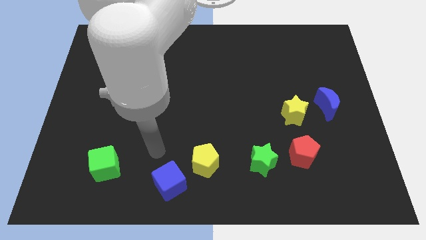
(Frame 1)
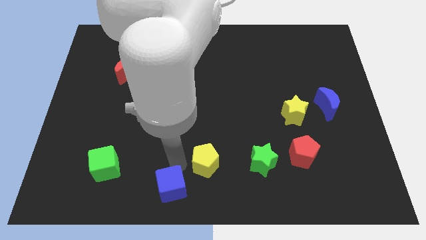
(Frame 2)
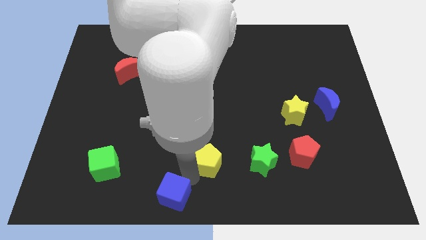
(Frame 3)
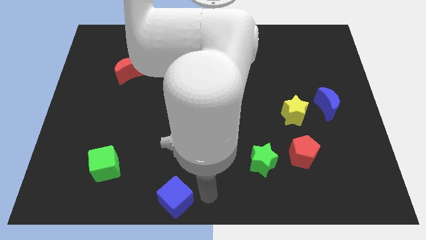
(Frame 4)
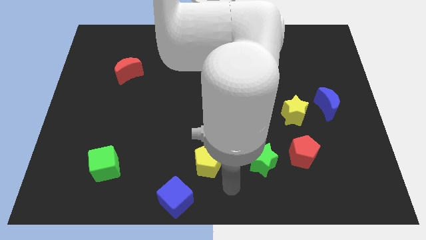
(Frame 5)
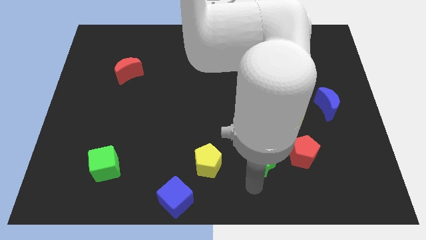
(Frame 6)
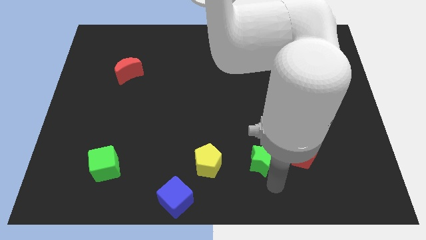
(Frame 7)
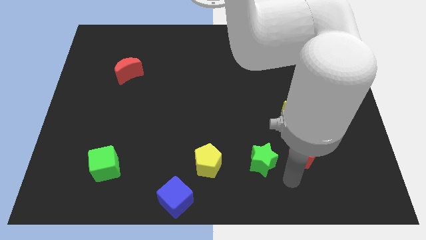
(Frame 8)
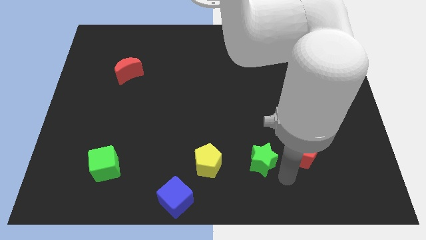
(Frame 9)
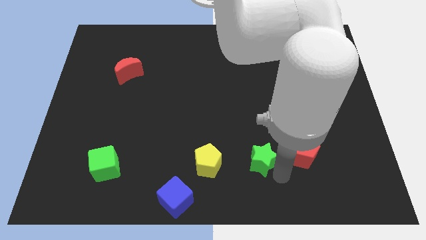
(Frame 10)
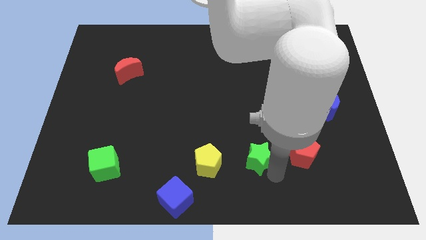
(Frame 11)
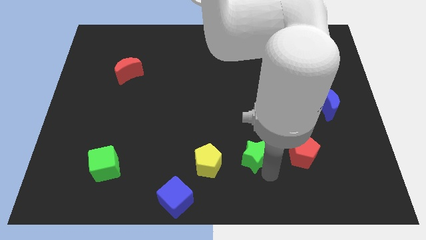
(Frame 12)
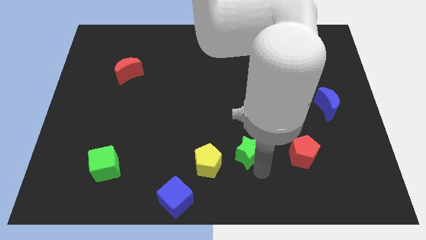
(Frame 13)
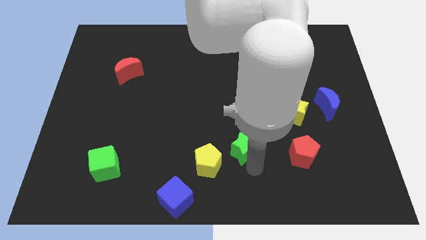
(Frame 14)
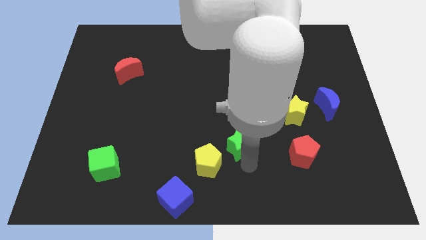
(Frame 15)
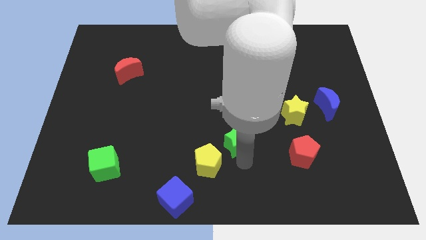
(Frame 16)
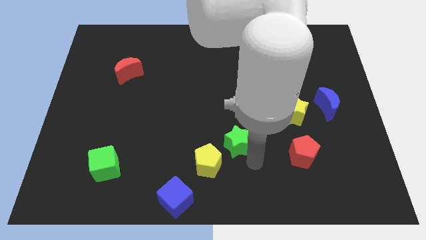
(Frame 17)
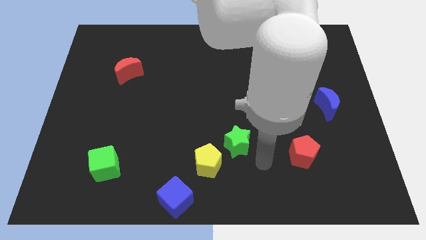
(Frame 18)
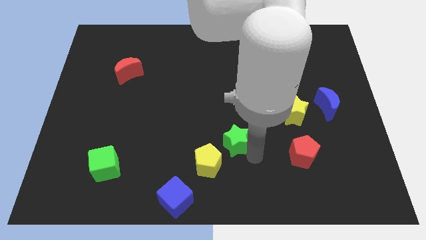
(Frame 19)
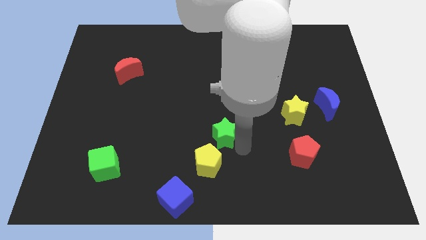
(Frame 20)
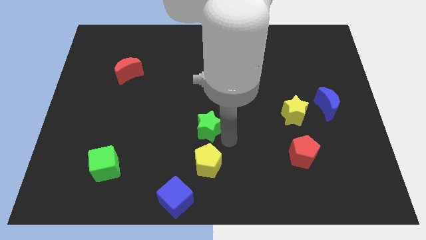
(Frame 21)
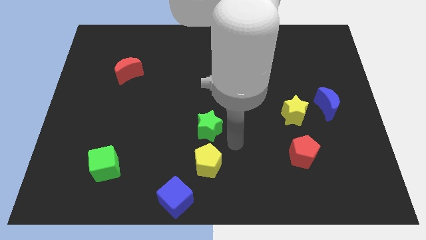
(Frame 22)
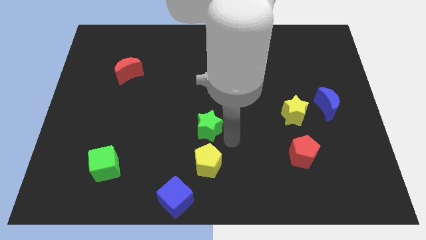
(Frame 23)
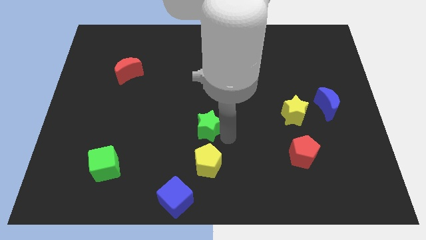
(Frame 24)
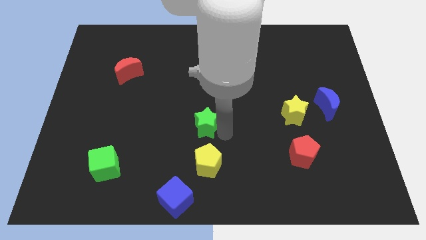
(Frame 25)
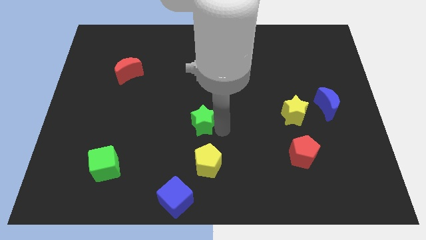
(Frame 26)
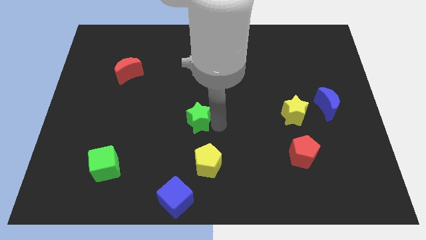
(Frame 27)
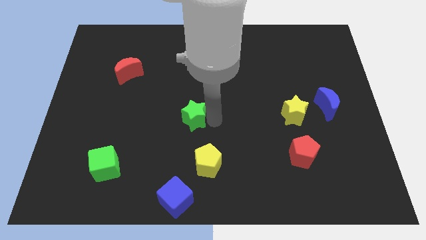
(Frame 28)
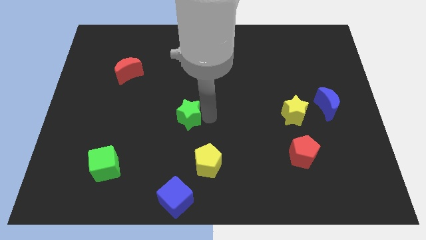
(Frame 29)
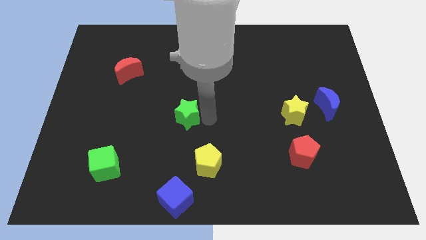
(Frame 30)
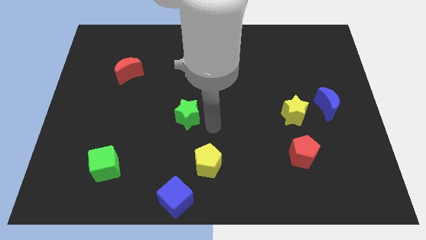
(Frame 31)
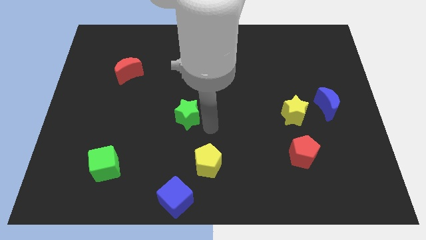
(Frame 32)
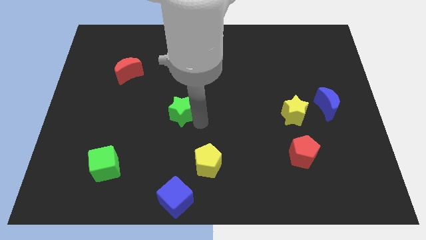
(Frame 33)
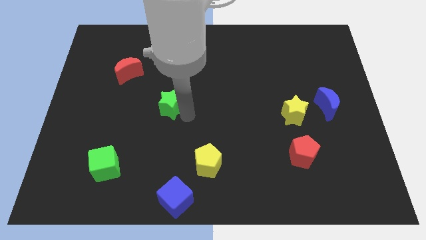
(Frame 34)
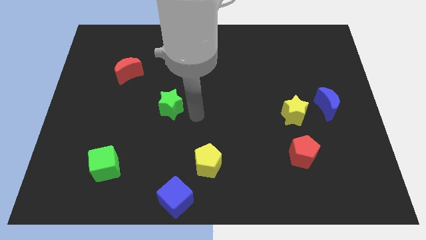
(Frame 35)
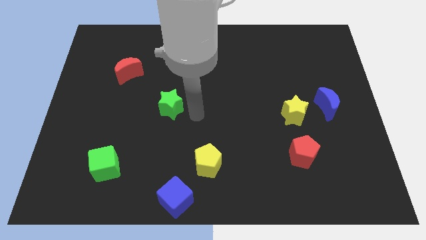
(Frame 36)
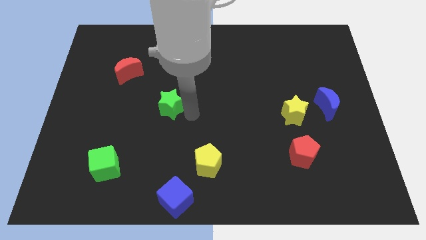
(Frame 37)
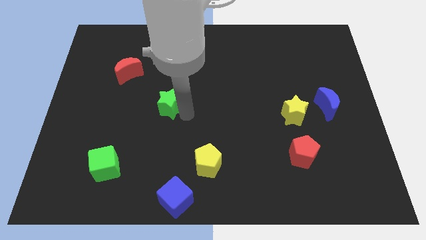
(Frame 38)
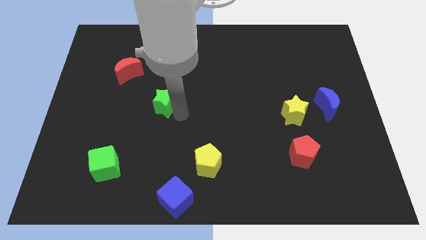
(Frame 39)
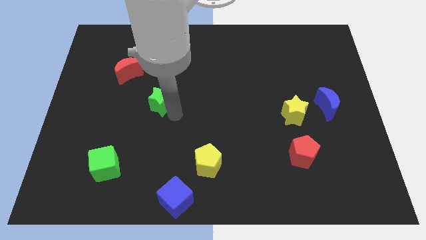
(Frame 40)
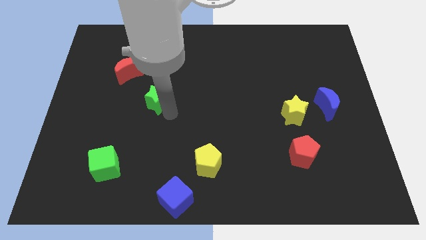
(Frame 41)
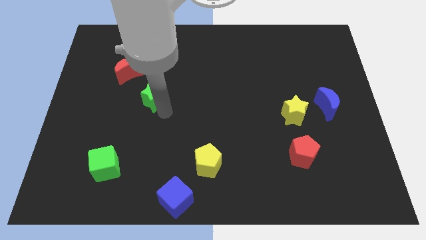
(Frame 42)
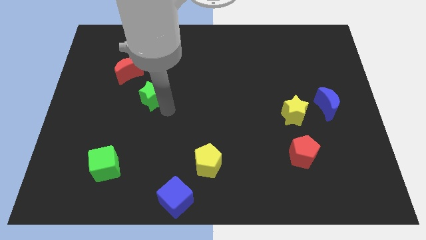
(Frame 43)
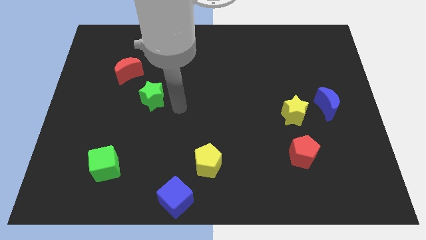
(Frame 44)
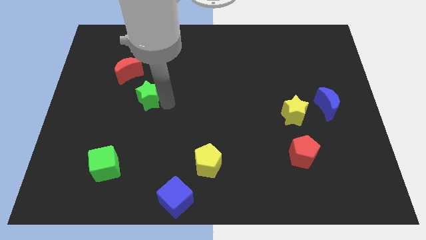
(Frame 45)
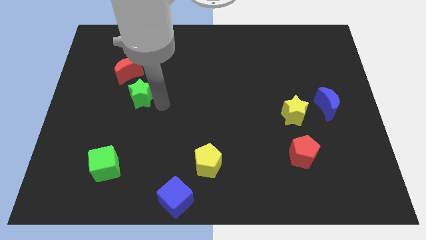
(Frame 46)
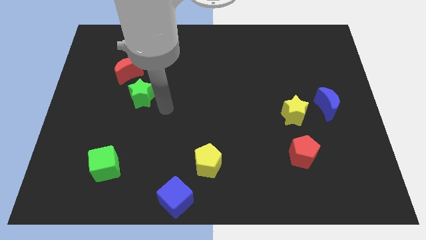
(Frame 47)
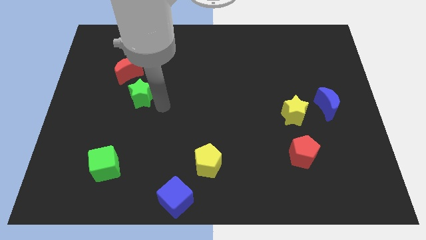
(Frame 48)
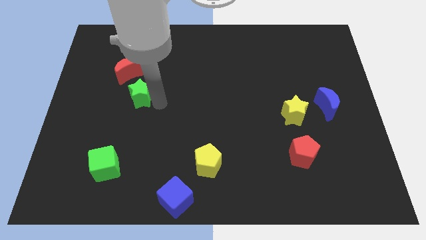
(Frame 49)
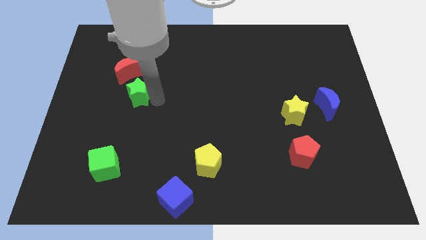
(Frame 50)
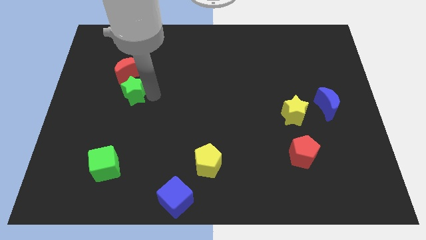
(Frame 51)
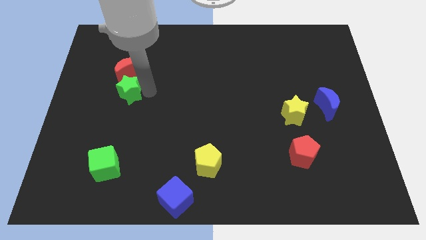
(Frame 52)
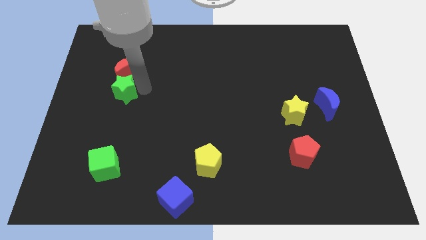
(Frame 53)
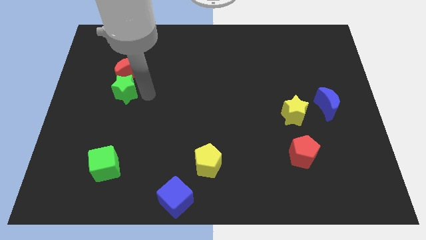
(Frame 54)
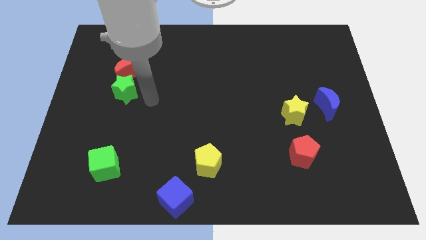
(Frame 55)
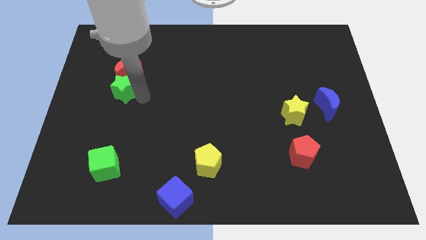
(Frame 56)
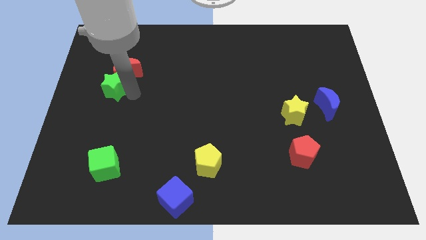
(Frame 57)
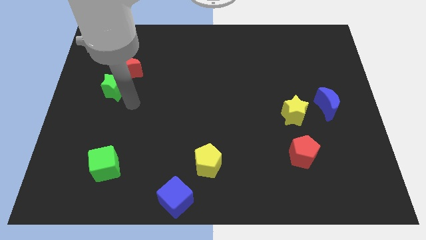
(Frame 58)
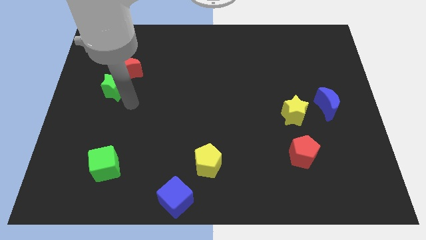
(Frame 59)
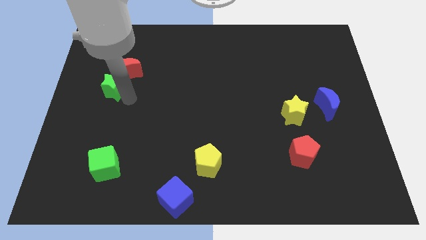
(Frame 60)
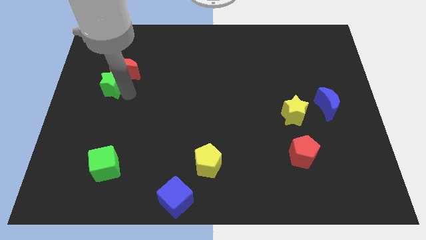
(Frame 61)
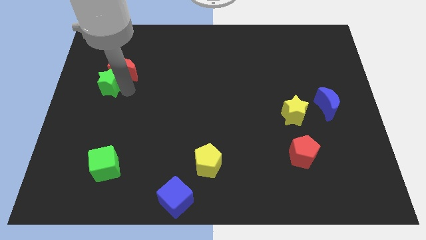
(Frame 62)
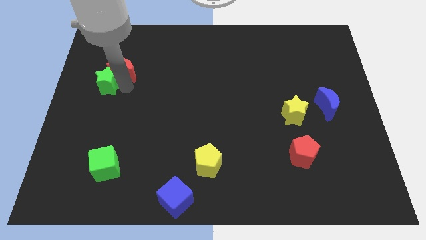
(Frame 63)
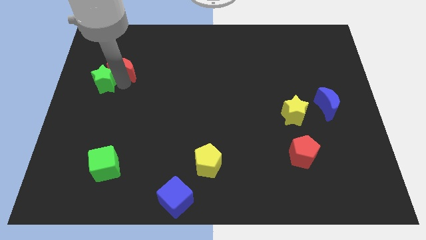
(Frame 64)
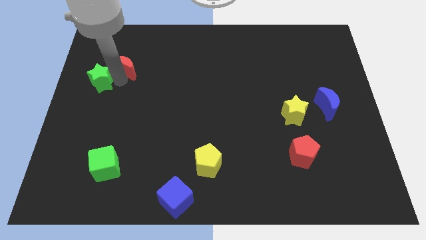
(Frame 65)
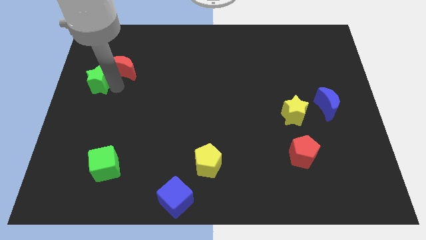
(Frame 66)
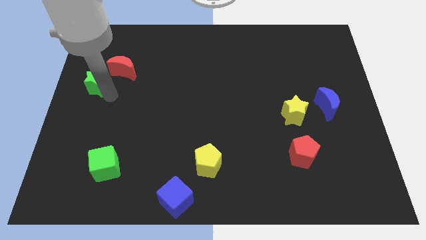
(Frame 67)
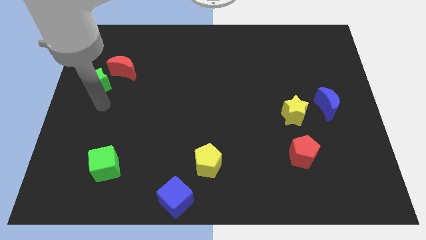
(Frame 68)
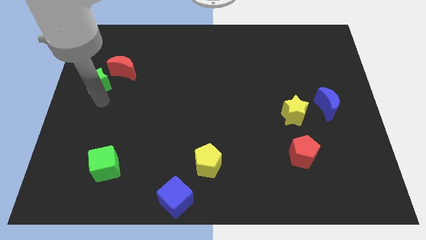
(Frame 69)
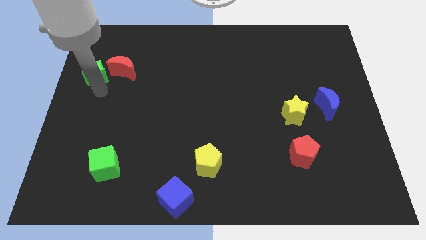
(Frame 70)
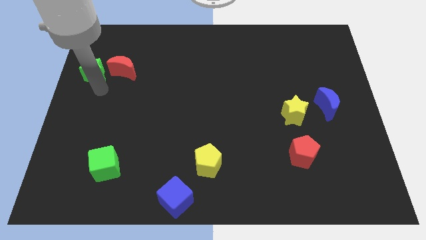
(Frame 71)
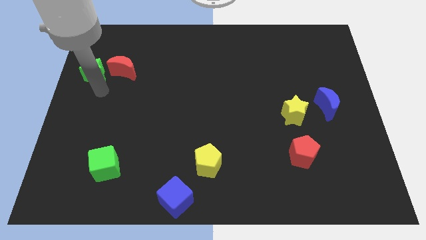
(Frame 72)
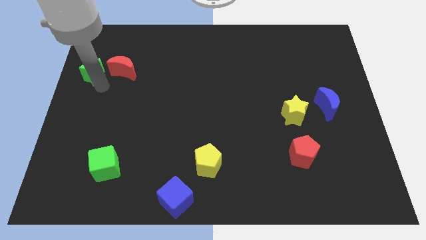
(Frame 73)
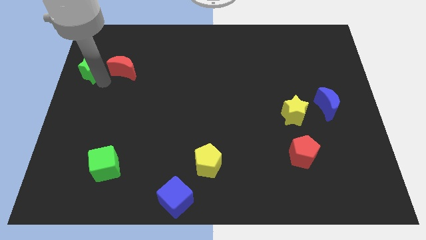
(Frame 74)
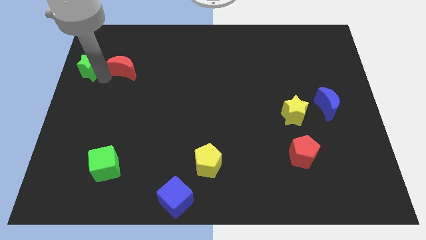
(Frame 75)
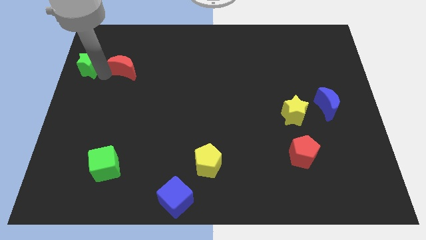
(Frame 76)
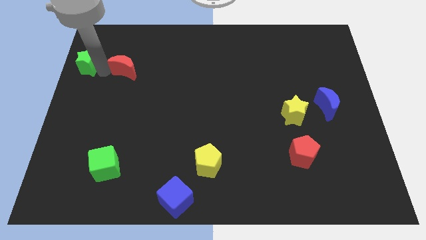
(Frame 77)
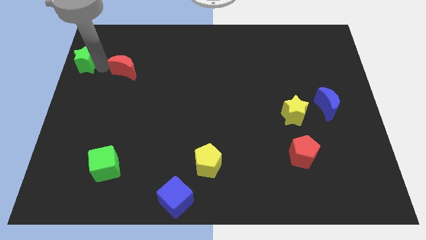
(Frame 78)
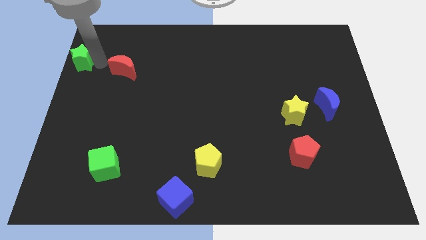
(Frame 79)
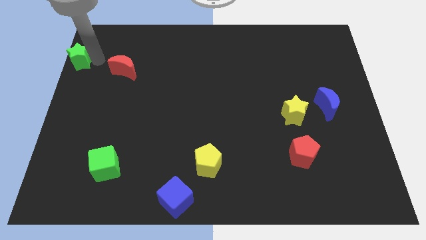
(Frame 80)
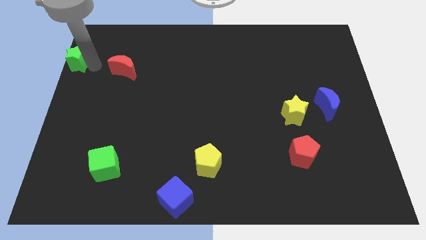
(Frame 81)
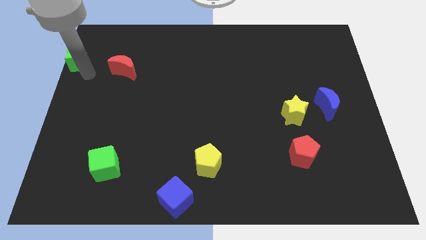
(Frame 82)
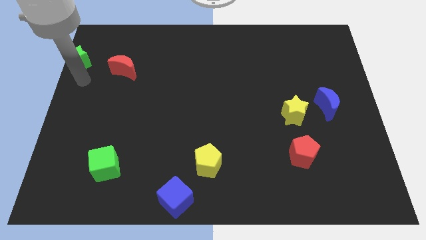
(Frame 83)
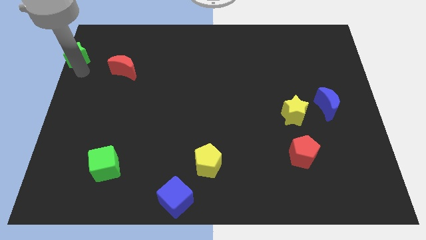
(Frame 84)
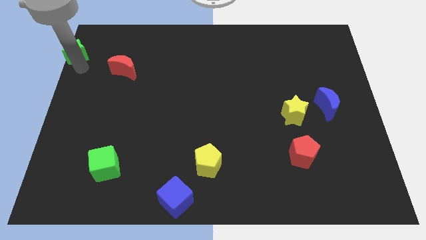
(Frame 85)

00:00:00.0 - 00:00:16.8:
slide the green star to the top left corner
